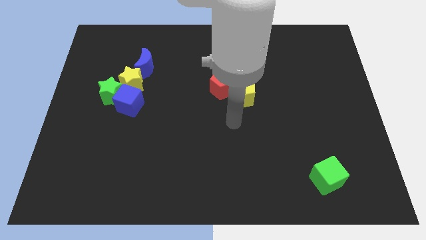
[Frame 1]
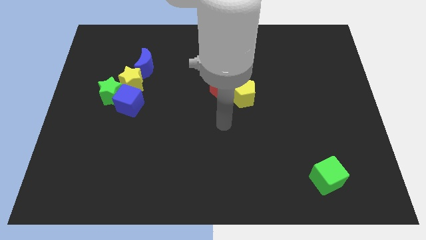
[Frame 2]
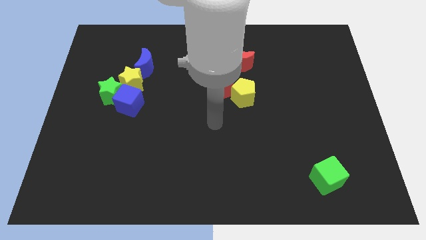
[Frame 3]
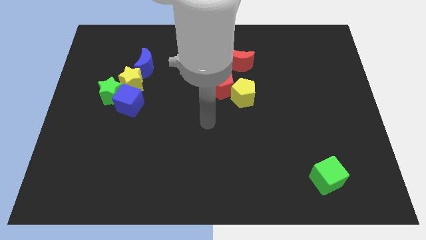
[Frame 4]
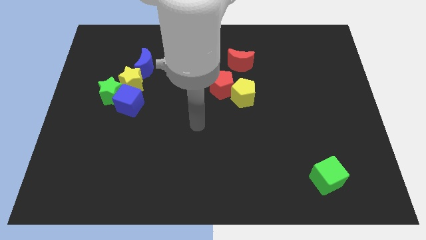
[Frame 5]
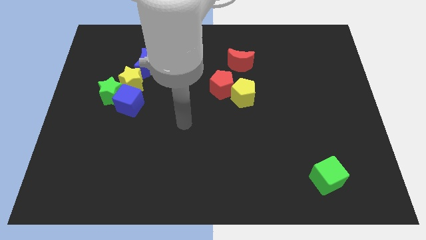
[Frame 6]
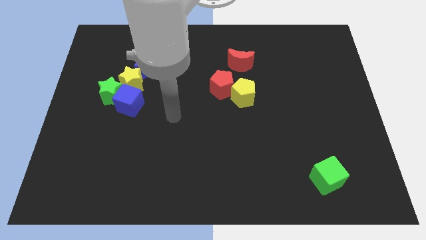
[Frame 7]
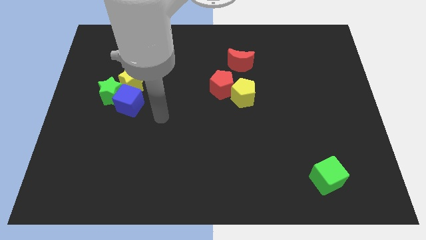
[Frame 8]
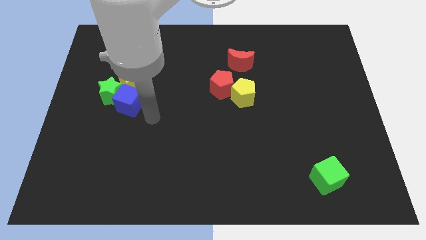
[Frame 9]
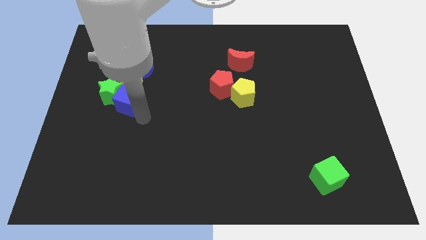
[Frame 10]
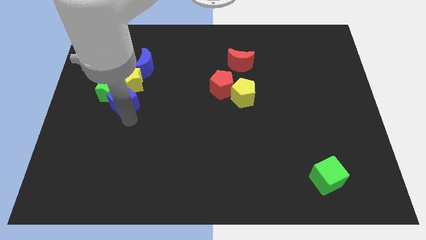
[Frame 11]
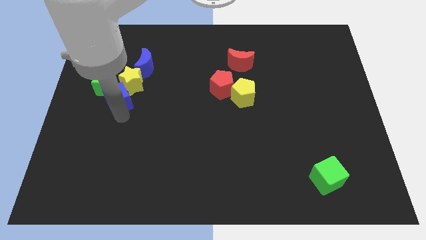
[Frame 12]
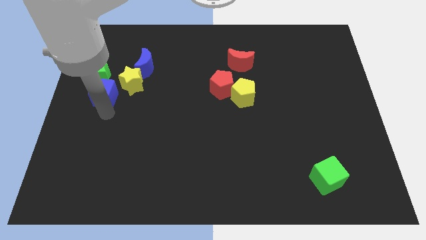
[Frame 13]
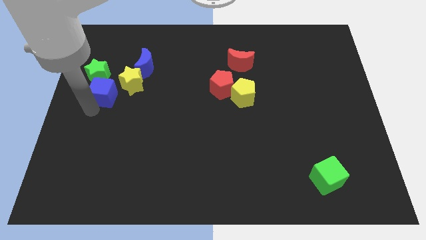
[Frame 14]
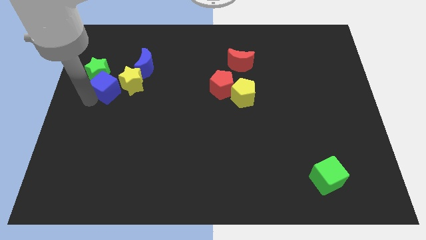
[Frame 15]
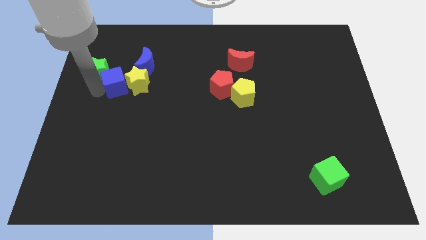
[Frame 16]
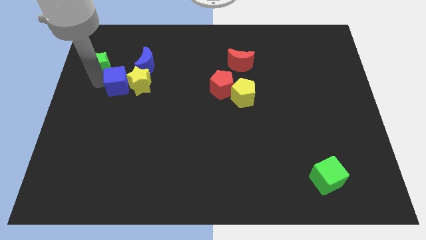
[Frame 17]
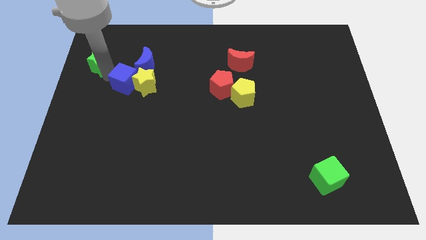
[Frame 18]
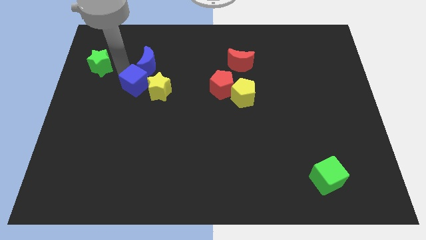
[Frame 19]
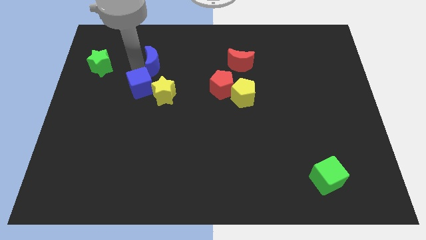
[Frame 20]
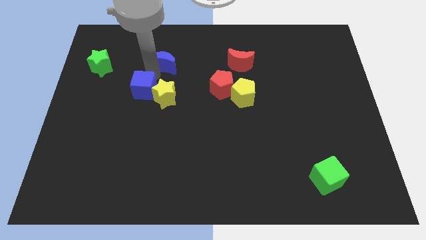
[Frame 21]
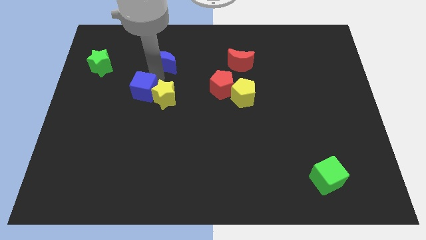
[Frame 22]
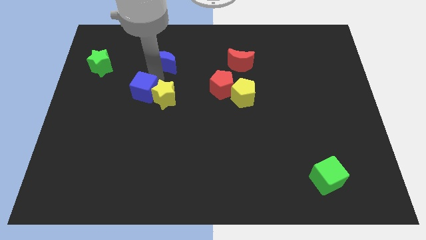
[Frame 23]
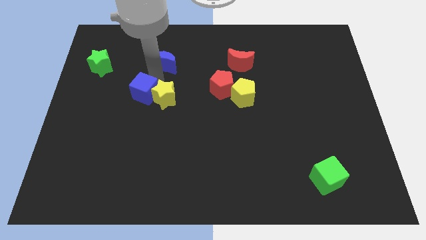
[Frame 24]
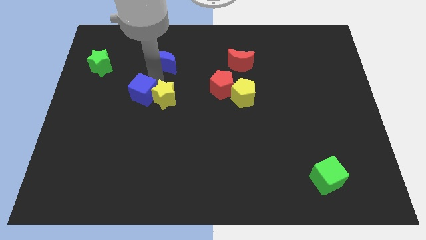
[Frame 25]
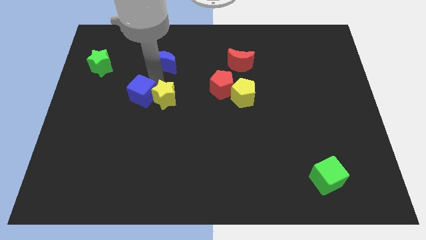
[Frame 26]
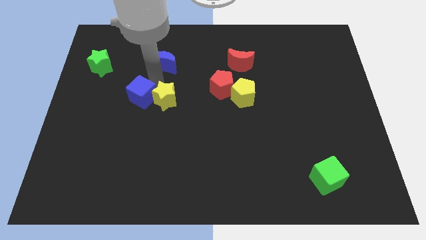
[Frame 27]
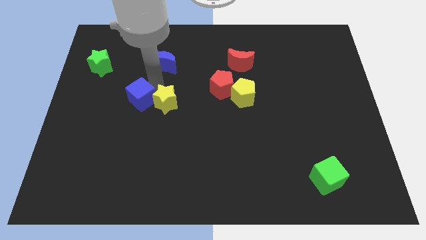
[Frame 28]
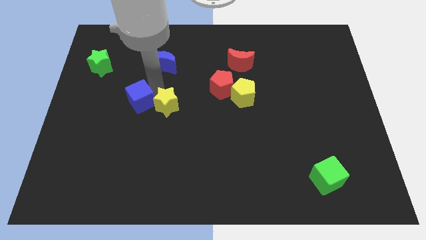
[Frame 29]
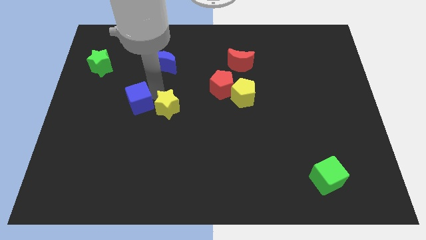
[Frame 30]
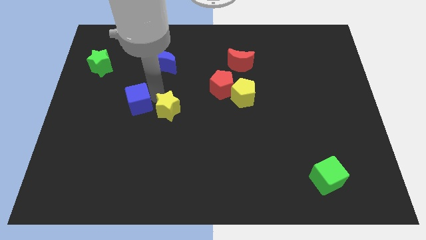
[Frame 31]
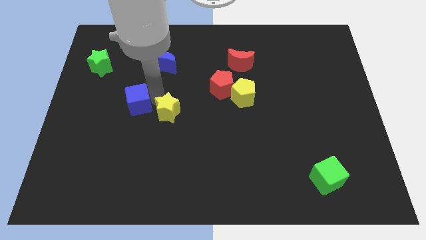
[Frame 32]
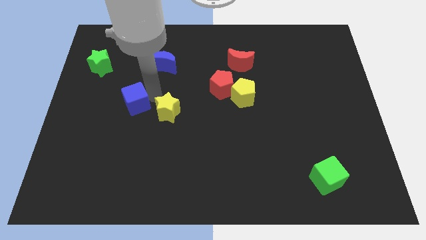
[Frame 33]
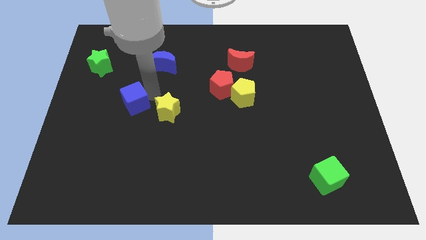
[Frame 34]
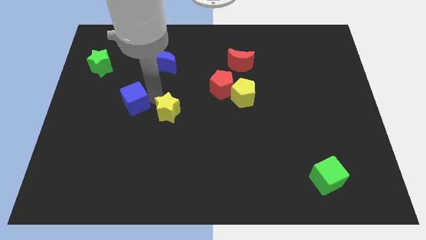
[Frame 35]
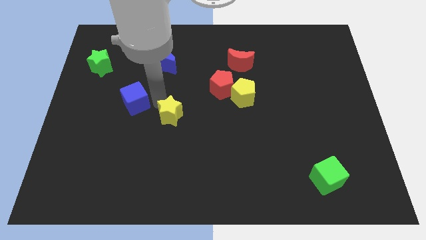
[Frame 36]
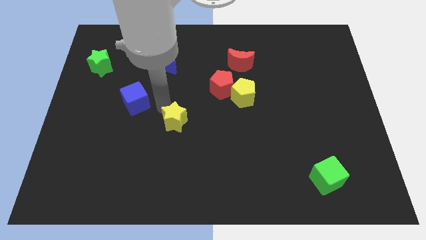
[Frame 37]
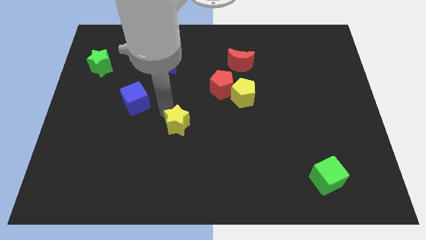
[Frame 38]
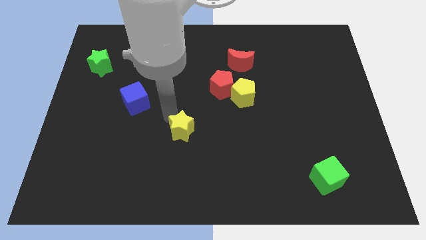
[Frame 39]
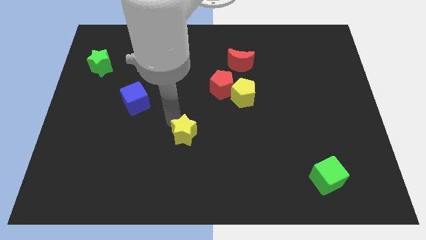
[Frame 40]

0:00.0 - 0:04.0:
move the yellow star down and then right

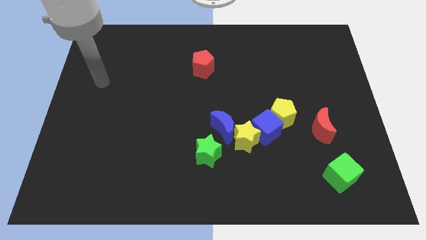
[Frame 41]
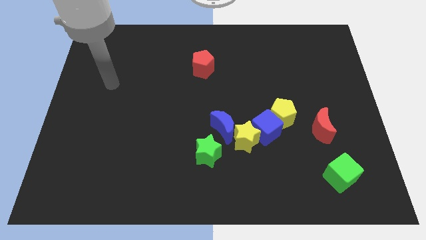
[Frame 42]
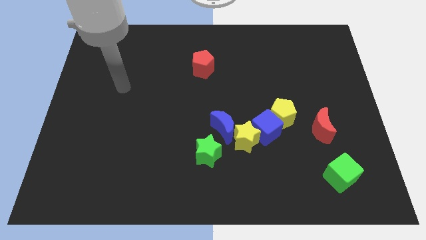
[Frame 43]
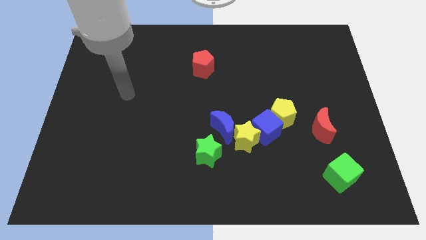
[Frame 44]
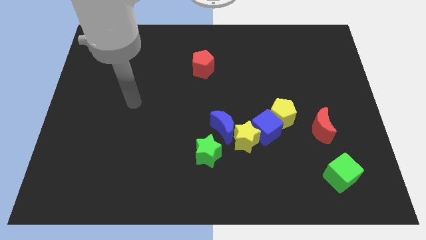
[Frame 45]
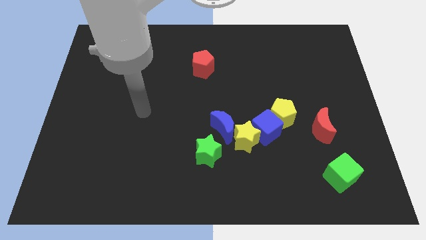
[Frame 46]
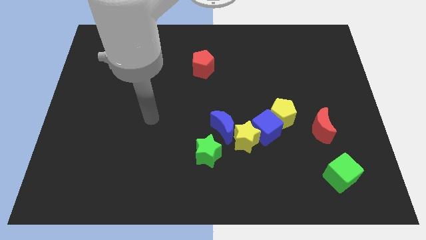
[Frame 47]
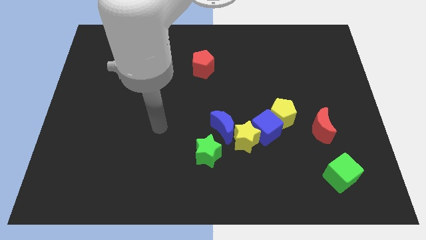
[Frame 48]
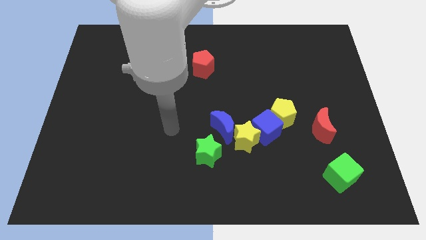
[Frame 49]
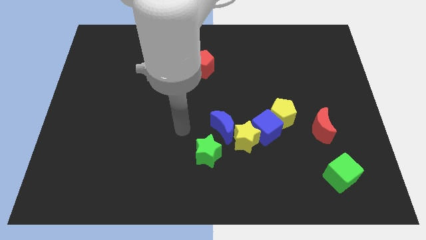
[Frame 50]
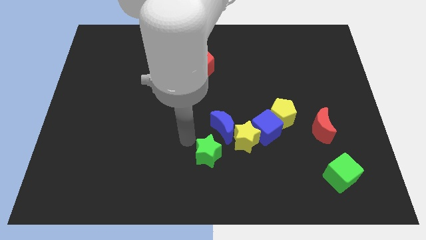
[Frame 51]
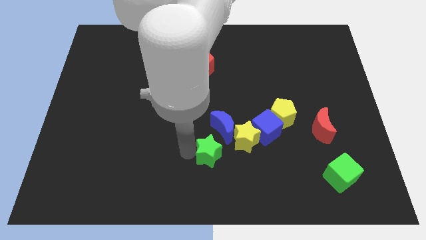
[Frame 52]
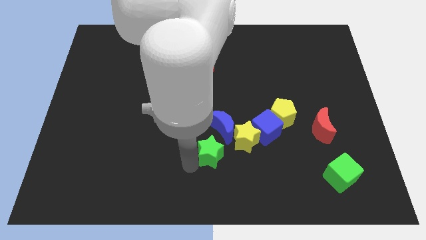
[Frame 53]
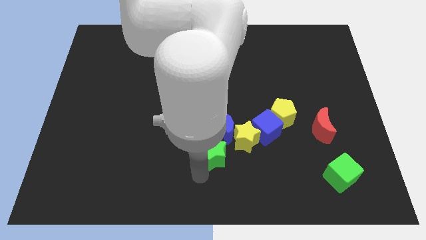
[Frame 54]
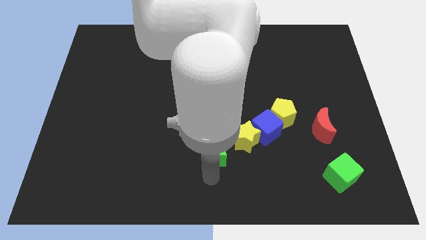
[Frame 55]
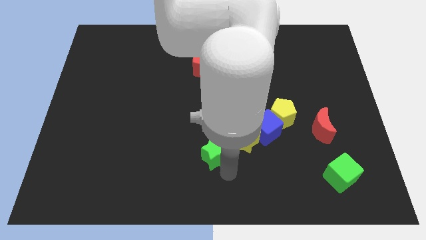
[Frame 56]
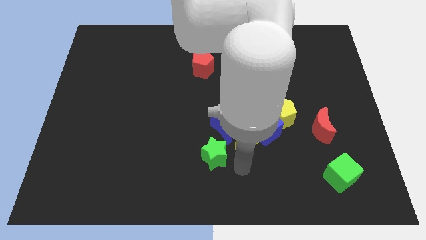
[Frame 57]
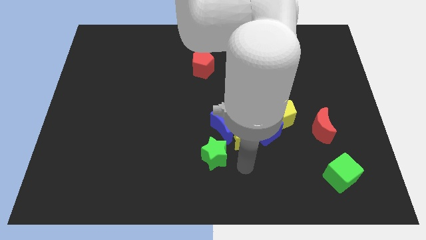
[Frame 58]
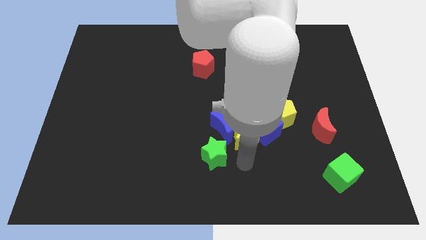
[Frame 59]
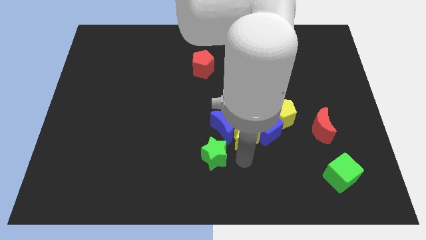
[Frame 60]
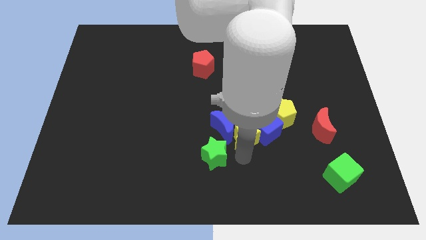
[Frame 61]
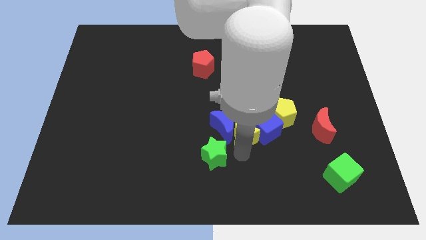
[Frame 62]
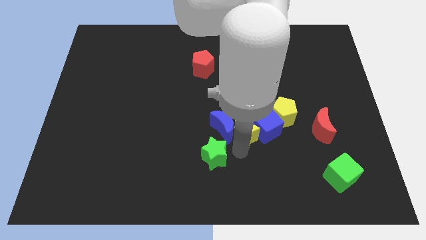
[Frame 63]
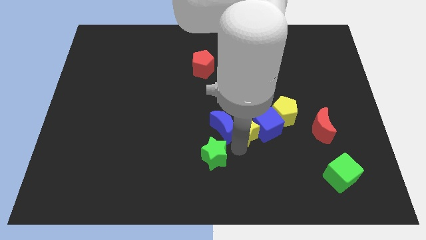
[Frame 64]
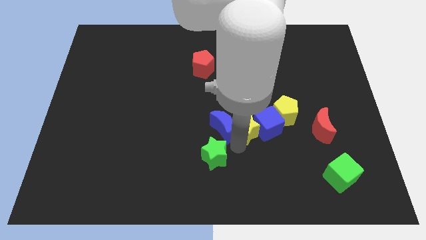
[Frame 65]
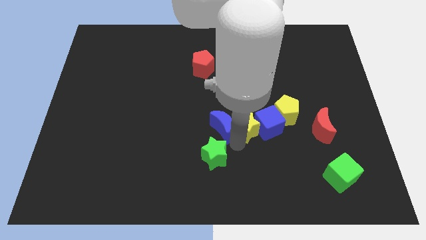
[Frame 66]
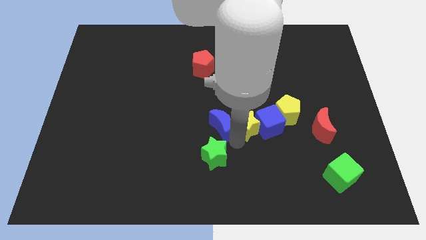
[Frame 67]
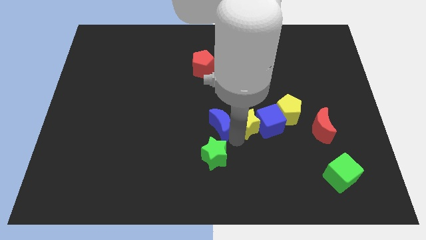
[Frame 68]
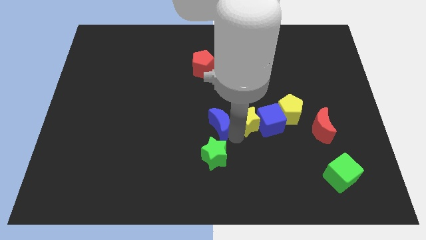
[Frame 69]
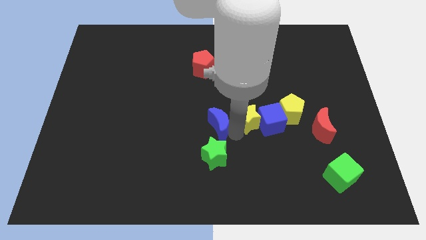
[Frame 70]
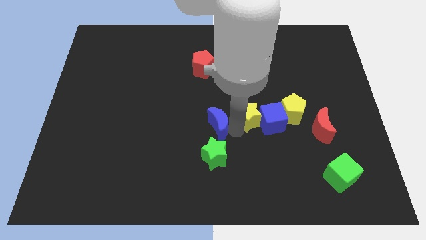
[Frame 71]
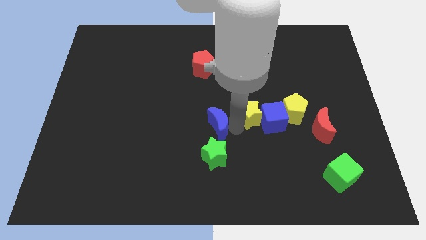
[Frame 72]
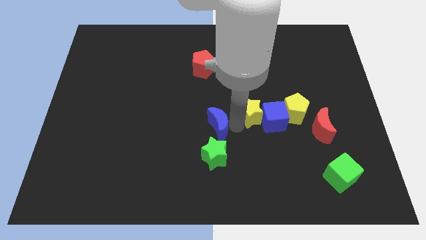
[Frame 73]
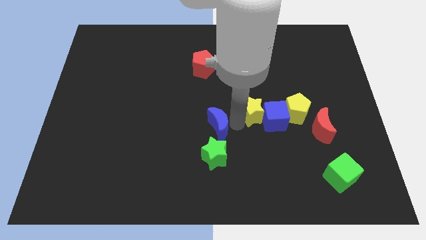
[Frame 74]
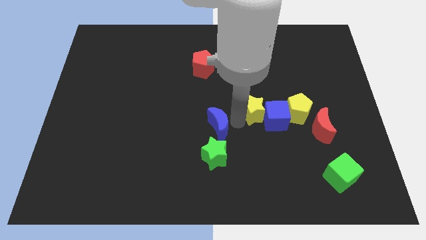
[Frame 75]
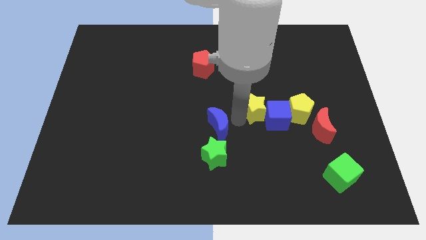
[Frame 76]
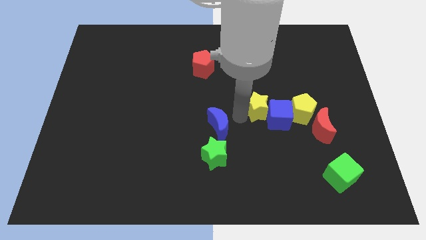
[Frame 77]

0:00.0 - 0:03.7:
push the yellow star up and to the right diagonally slightly

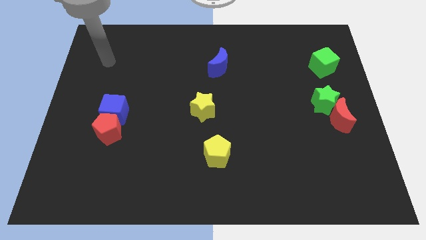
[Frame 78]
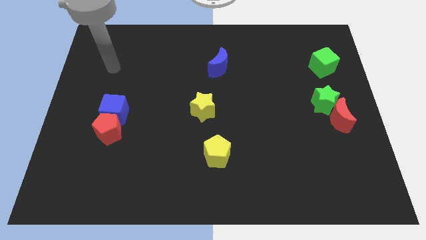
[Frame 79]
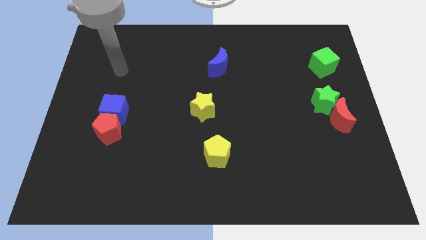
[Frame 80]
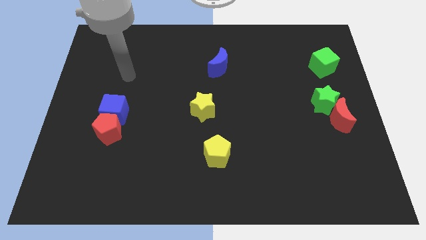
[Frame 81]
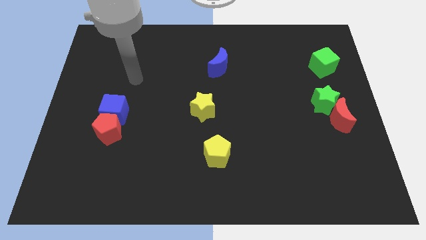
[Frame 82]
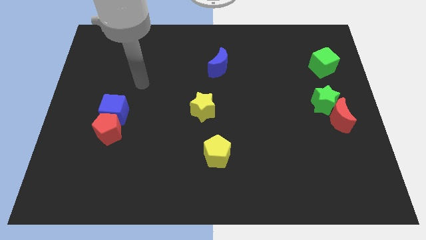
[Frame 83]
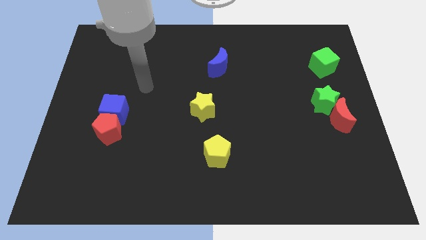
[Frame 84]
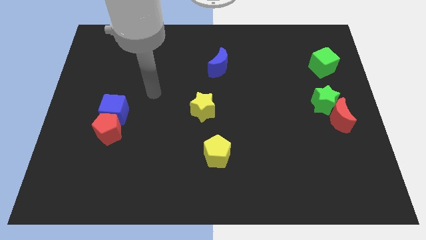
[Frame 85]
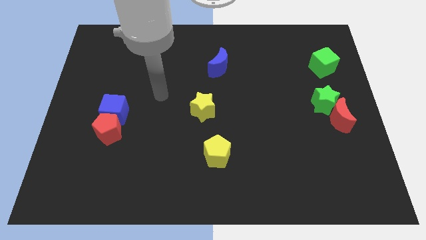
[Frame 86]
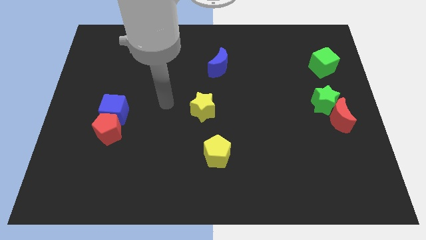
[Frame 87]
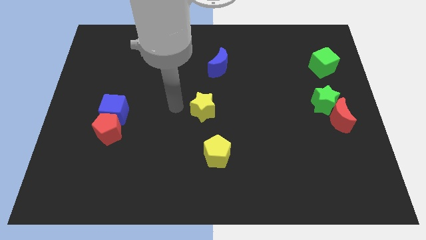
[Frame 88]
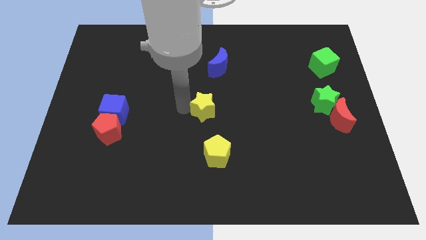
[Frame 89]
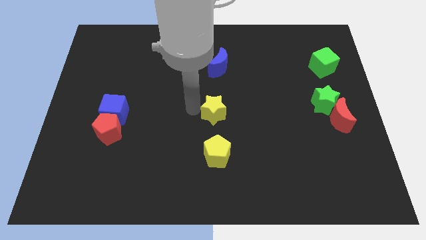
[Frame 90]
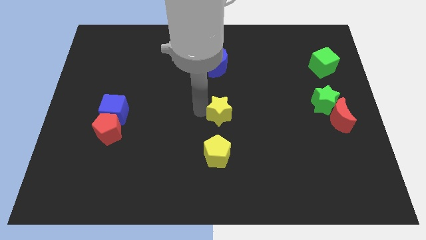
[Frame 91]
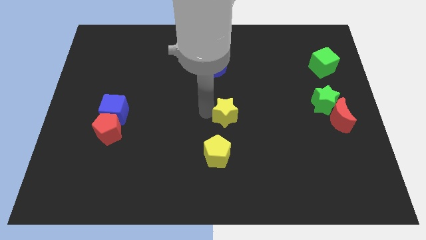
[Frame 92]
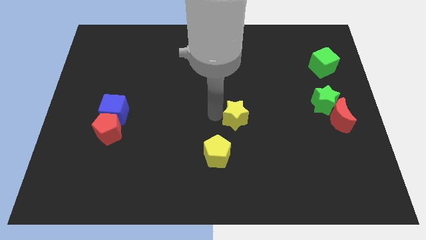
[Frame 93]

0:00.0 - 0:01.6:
slightly slide the yellow star right
